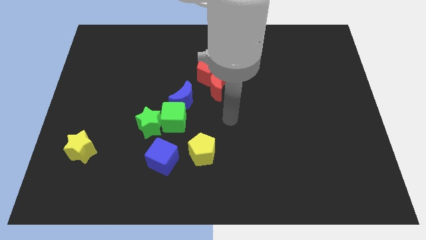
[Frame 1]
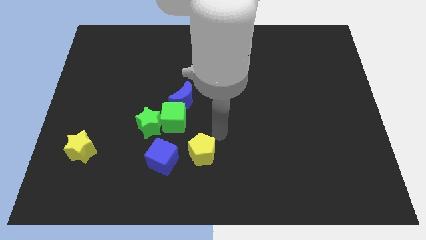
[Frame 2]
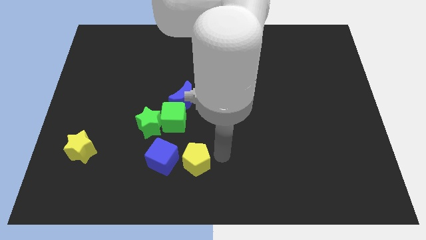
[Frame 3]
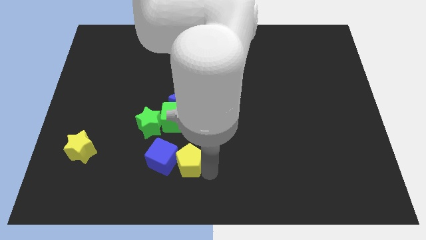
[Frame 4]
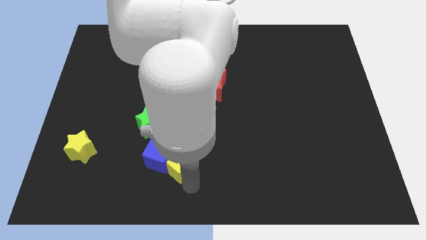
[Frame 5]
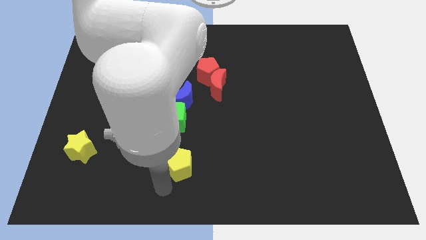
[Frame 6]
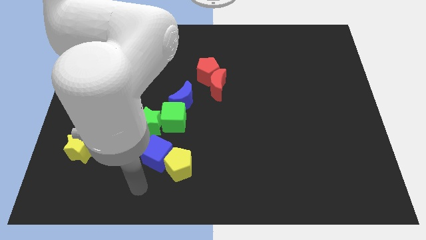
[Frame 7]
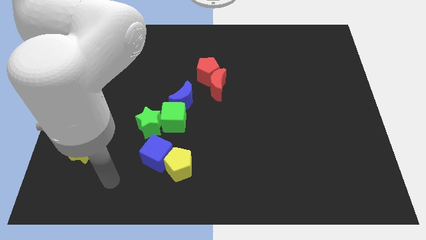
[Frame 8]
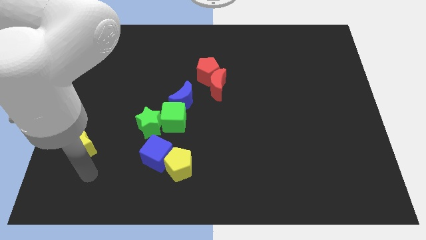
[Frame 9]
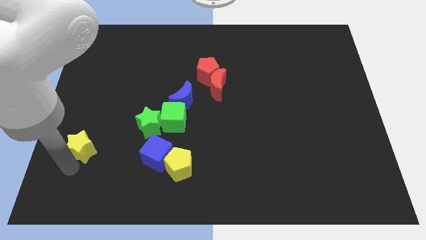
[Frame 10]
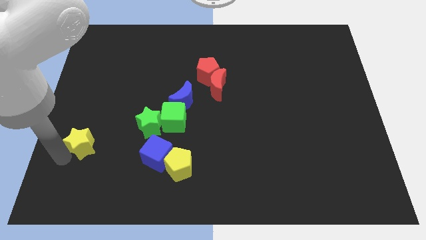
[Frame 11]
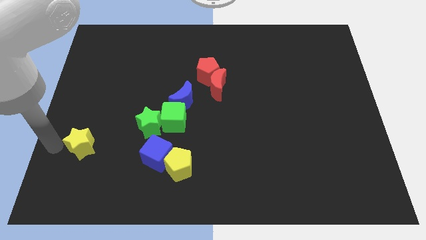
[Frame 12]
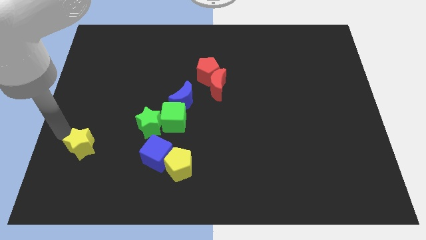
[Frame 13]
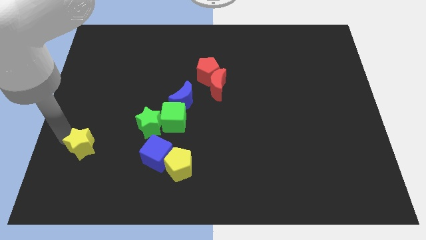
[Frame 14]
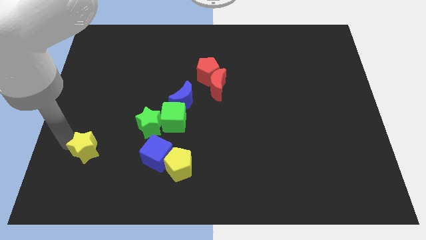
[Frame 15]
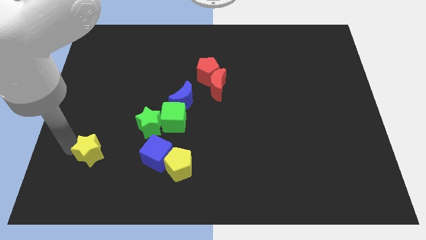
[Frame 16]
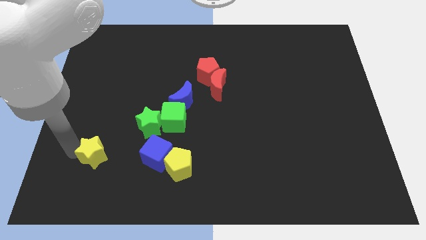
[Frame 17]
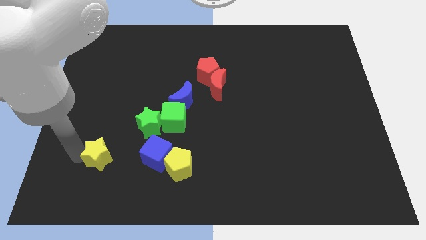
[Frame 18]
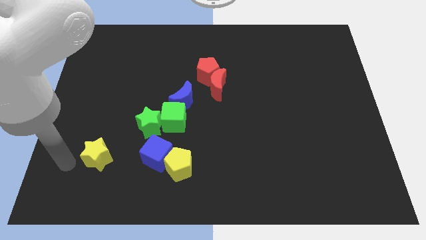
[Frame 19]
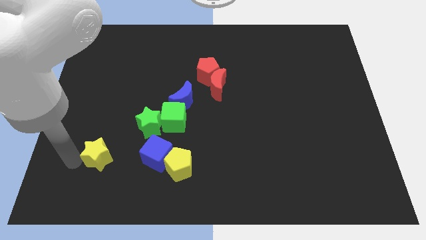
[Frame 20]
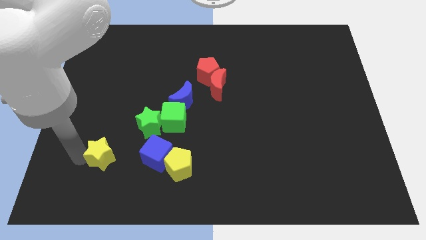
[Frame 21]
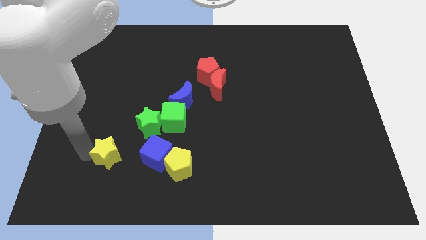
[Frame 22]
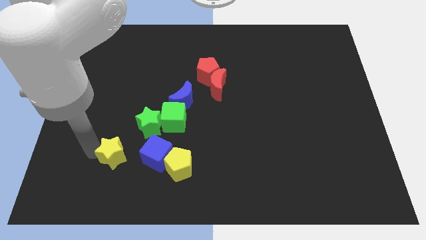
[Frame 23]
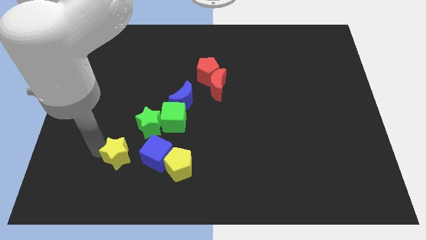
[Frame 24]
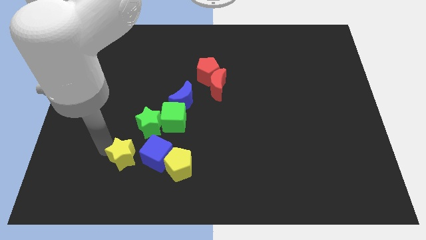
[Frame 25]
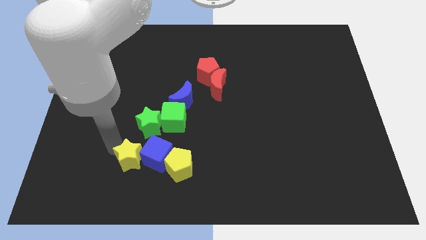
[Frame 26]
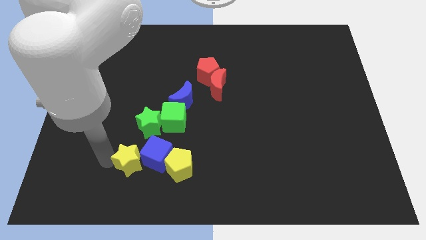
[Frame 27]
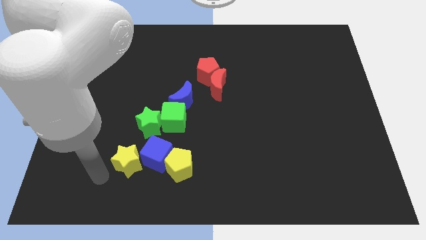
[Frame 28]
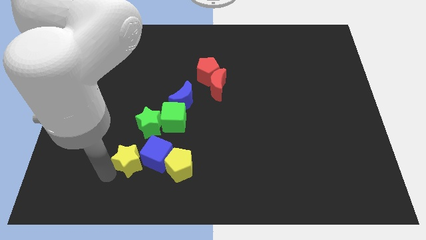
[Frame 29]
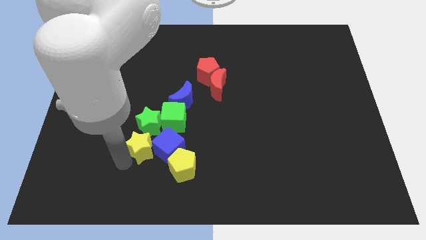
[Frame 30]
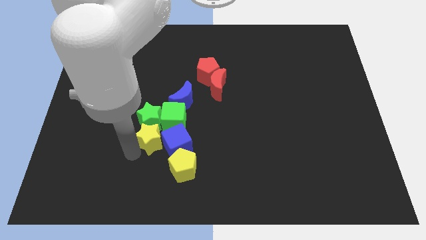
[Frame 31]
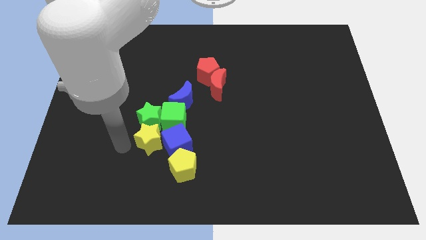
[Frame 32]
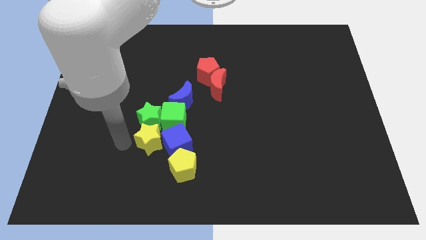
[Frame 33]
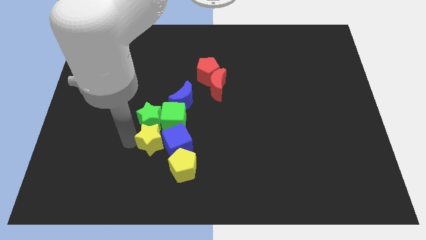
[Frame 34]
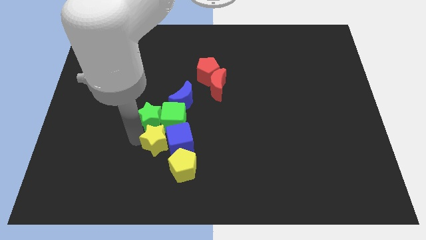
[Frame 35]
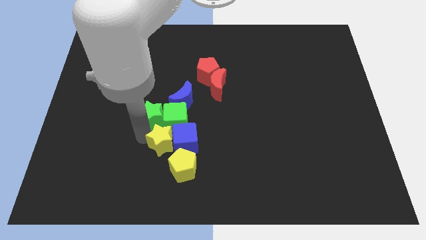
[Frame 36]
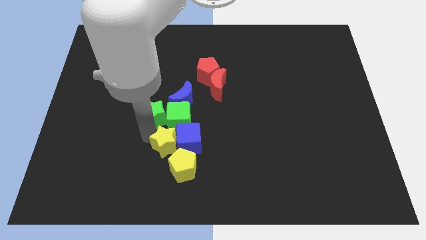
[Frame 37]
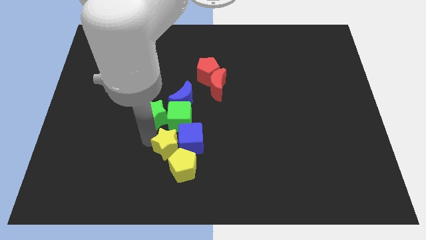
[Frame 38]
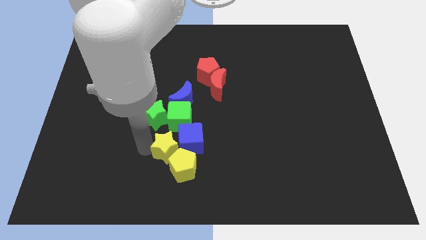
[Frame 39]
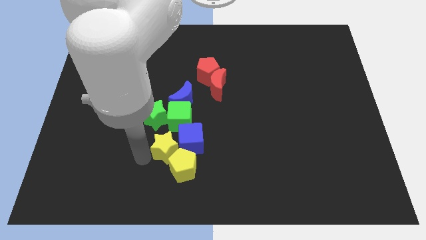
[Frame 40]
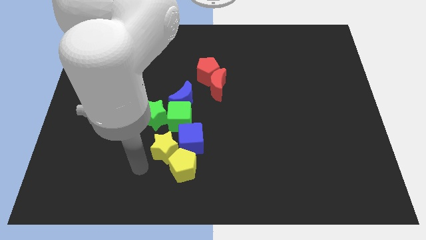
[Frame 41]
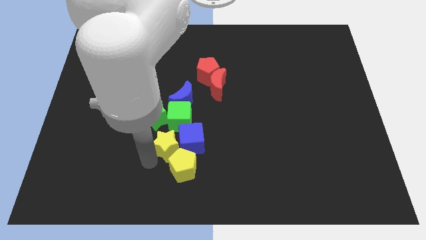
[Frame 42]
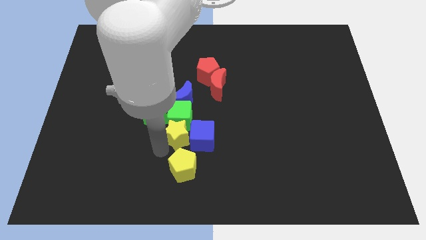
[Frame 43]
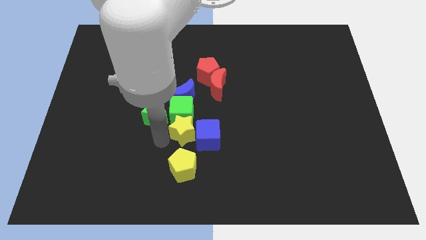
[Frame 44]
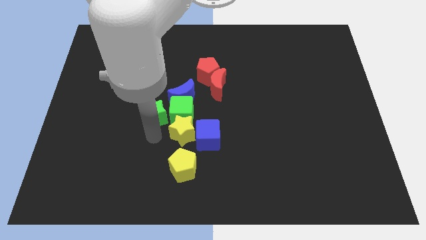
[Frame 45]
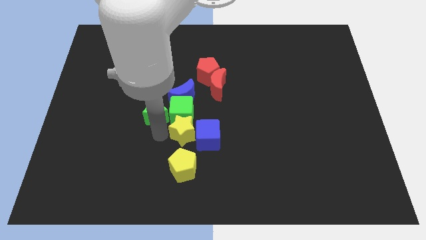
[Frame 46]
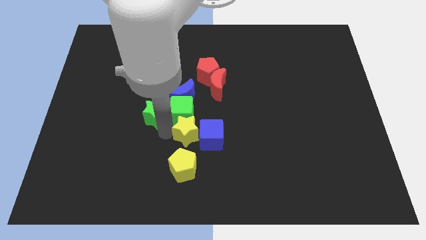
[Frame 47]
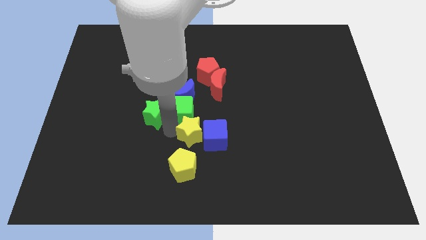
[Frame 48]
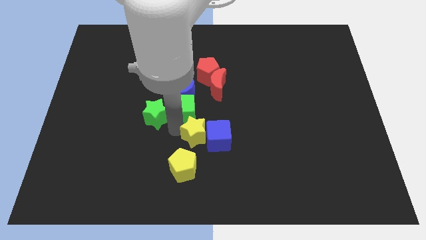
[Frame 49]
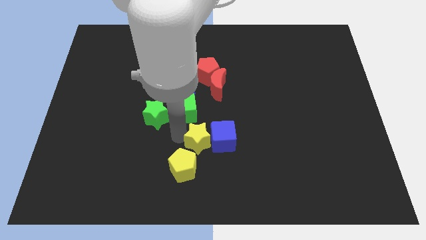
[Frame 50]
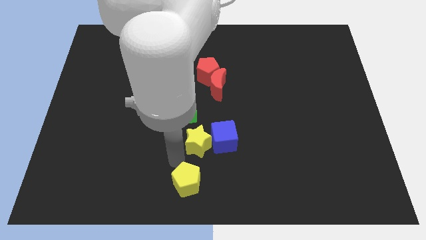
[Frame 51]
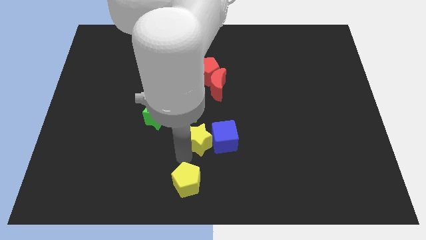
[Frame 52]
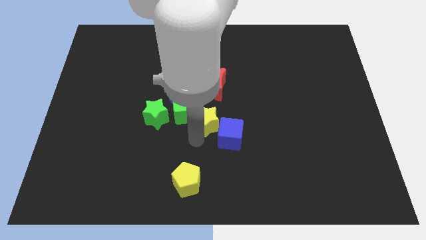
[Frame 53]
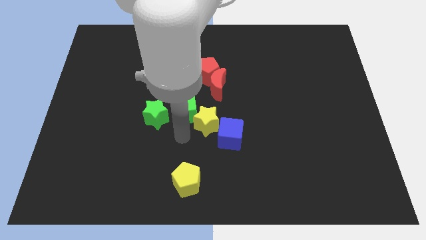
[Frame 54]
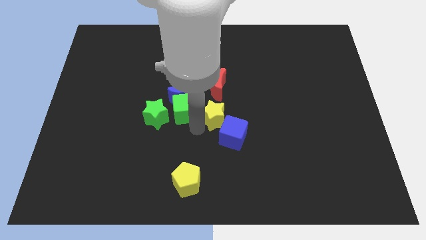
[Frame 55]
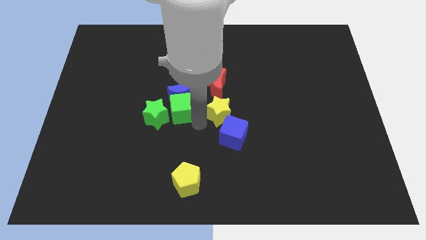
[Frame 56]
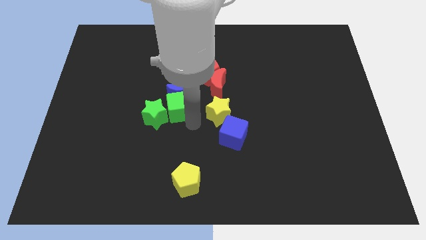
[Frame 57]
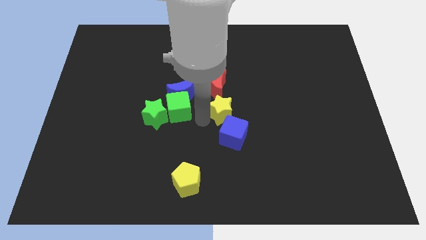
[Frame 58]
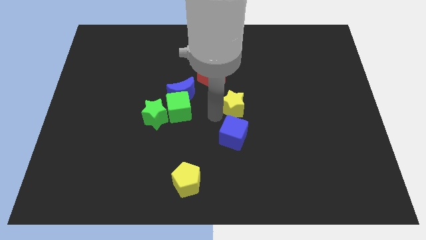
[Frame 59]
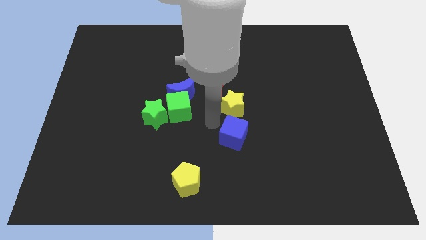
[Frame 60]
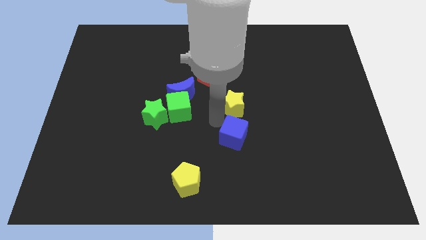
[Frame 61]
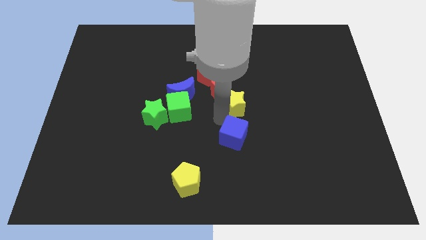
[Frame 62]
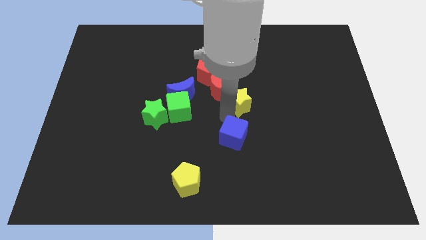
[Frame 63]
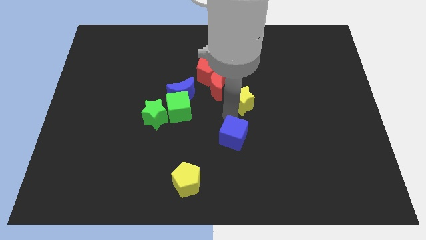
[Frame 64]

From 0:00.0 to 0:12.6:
put the yellow star to the right of the red moon

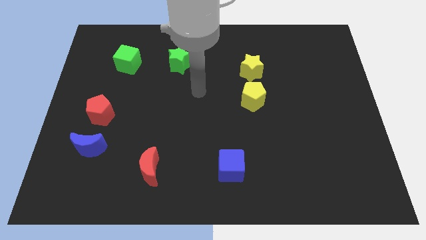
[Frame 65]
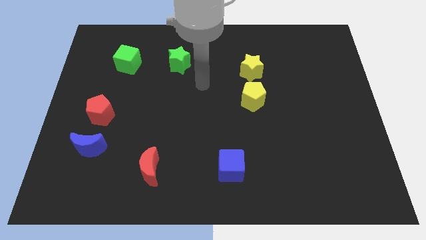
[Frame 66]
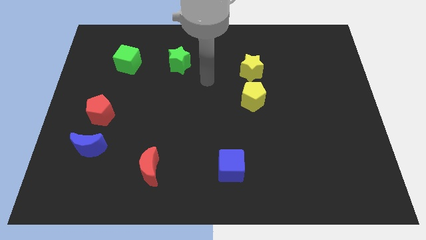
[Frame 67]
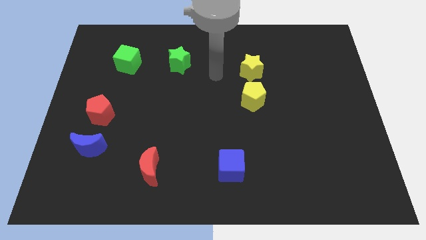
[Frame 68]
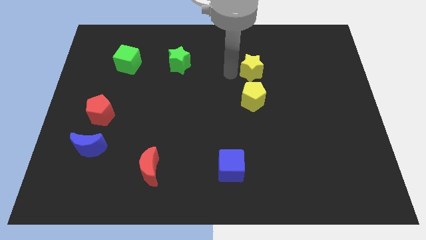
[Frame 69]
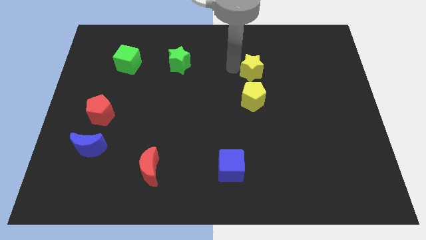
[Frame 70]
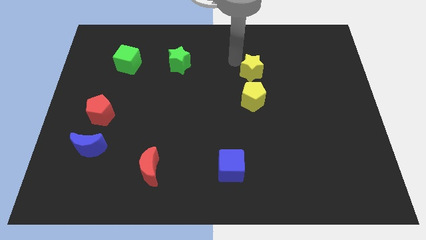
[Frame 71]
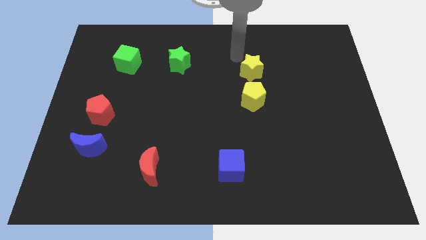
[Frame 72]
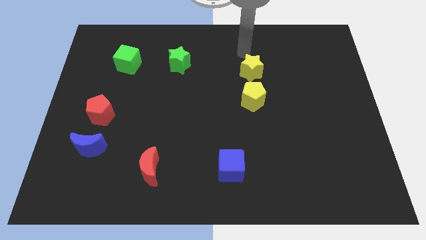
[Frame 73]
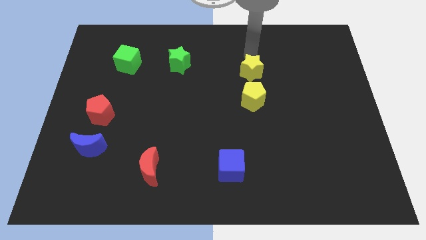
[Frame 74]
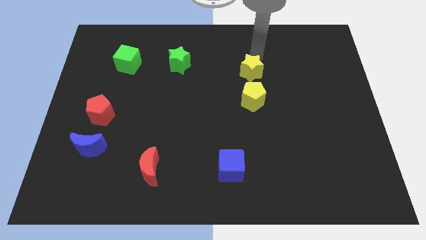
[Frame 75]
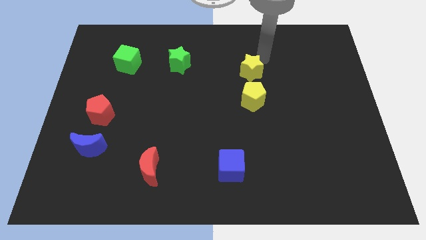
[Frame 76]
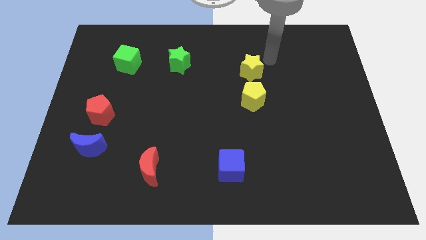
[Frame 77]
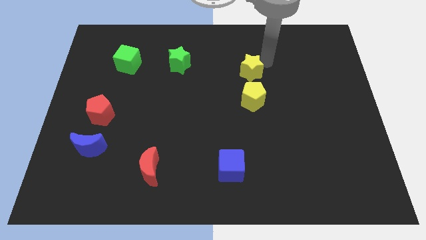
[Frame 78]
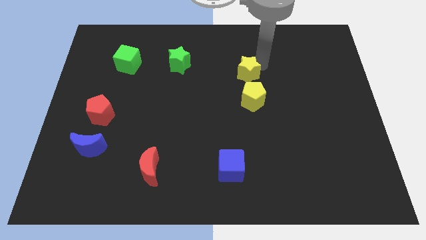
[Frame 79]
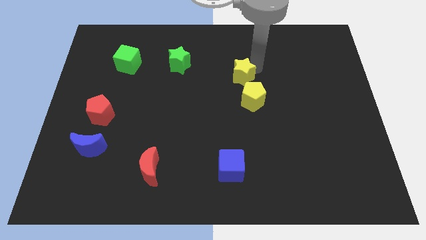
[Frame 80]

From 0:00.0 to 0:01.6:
move the yellow star to the top left of the yellow pentagon
